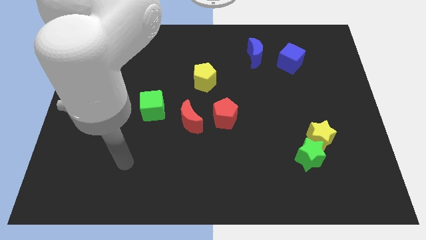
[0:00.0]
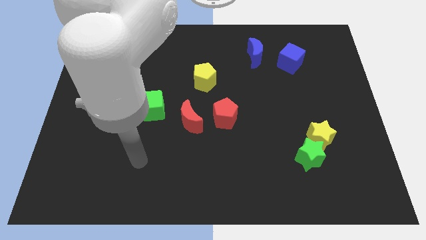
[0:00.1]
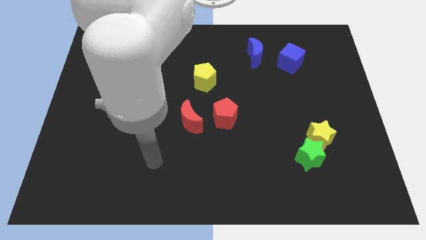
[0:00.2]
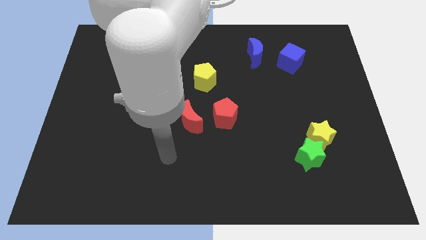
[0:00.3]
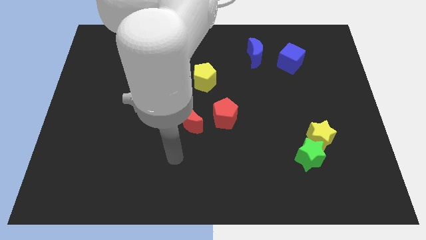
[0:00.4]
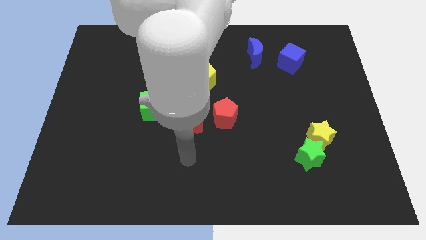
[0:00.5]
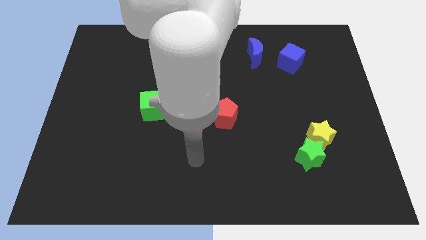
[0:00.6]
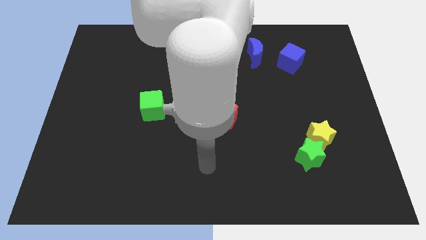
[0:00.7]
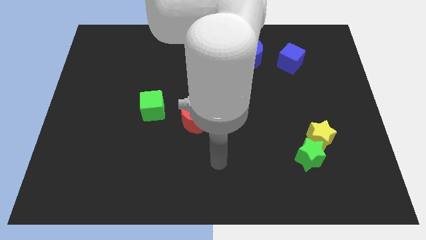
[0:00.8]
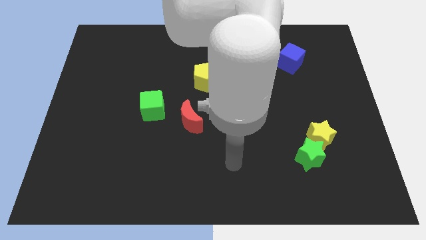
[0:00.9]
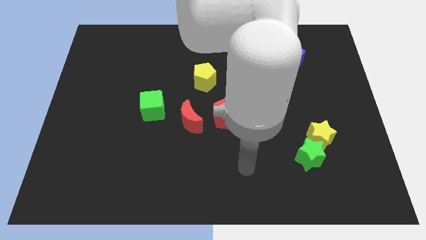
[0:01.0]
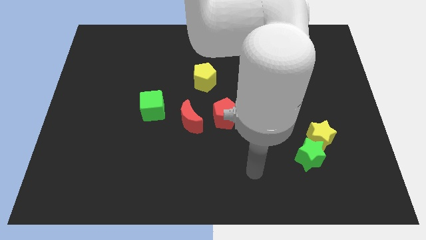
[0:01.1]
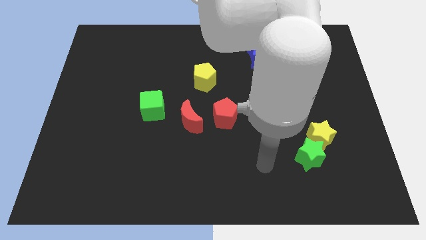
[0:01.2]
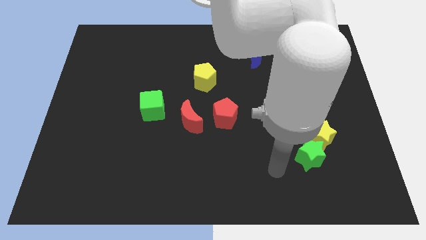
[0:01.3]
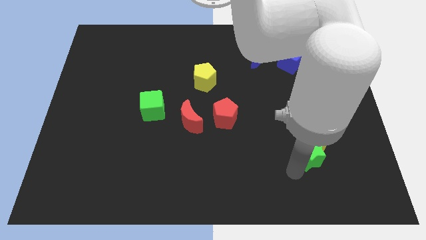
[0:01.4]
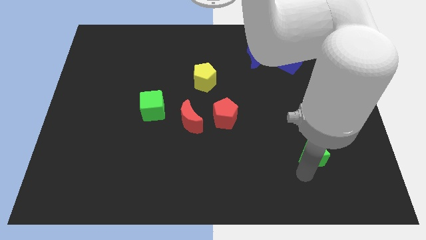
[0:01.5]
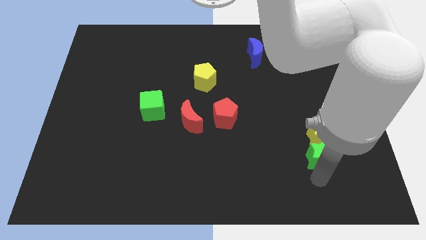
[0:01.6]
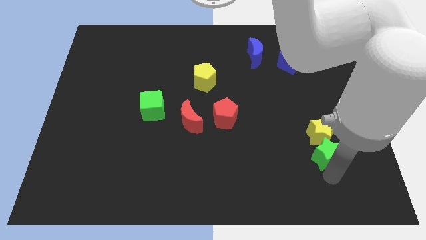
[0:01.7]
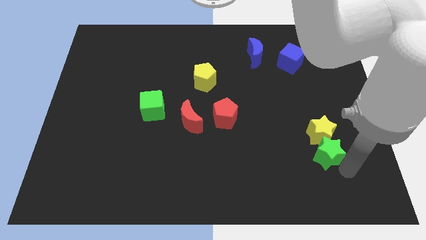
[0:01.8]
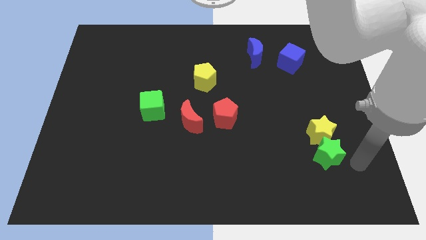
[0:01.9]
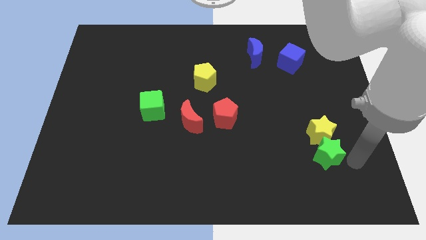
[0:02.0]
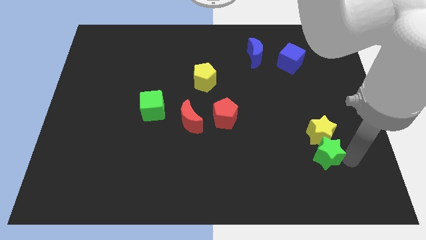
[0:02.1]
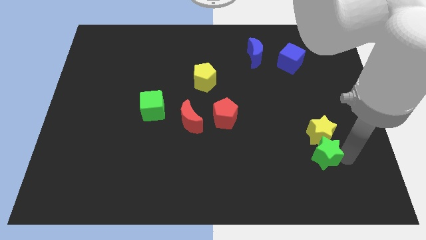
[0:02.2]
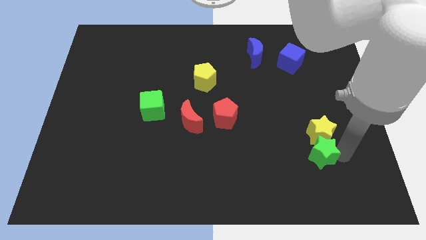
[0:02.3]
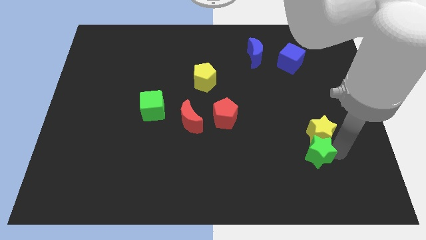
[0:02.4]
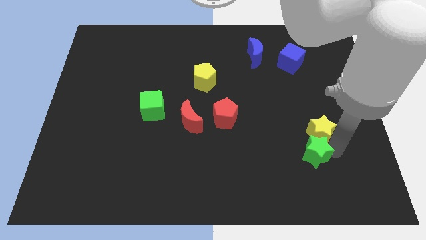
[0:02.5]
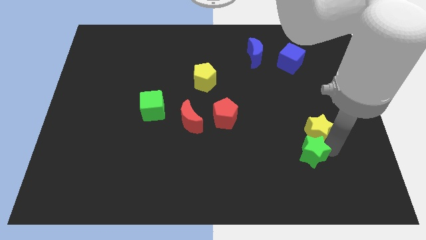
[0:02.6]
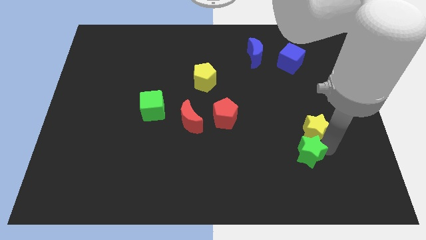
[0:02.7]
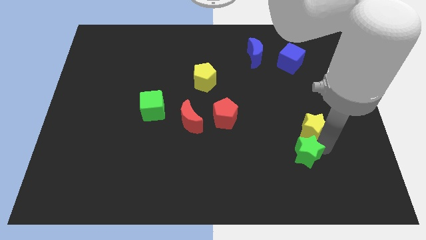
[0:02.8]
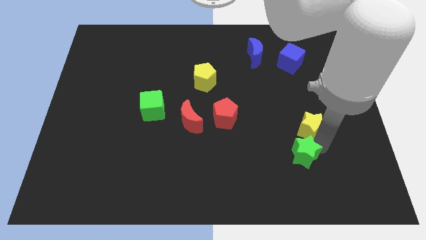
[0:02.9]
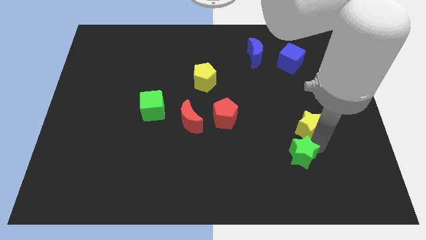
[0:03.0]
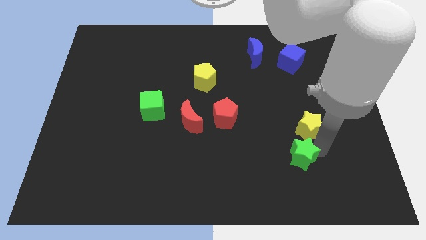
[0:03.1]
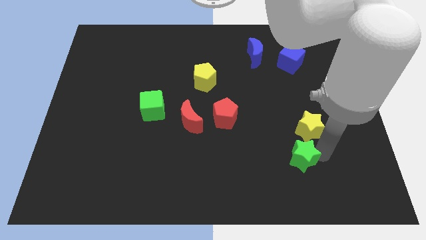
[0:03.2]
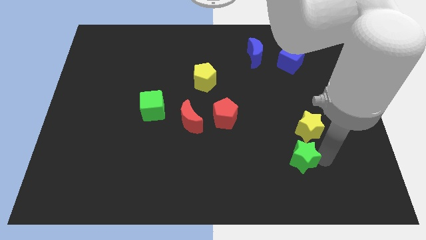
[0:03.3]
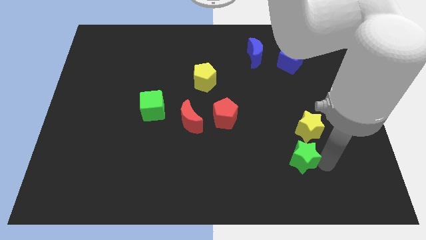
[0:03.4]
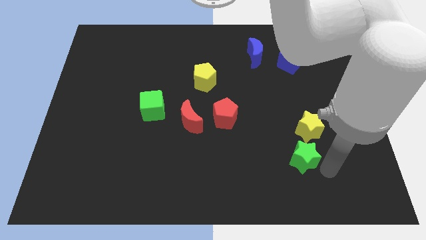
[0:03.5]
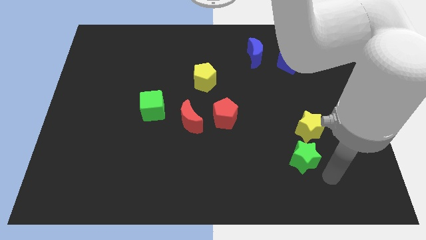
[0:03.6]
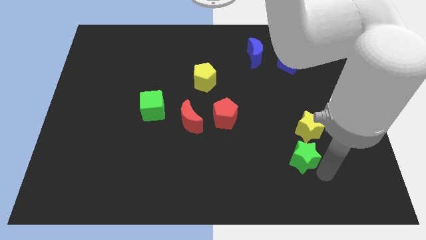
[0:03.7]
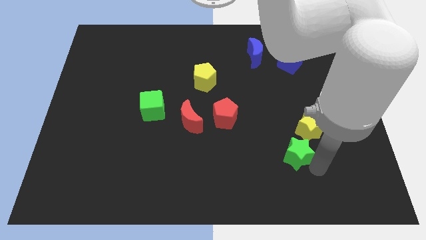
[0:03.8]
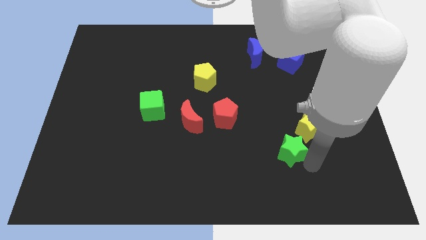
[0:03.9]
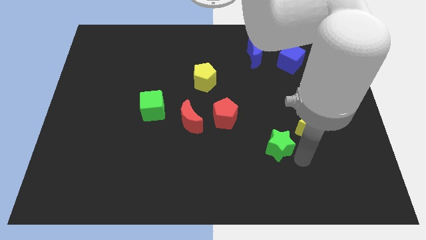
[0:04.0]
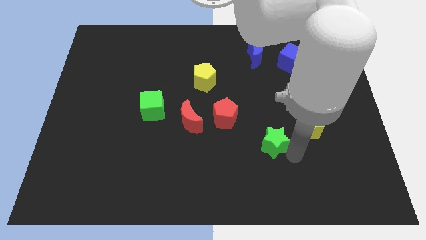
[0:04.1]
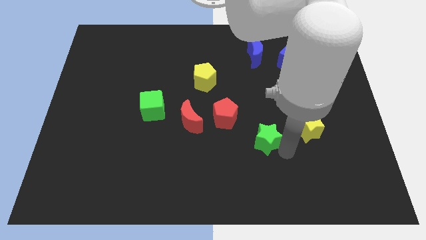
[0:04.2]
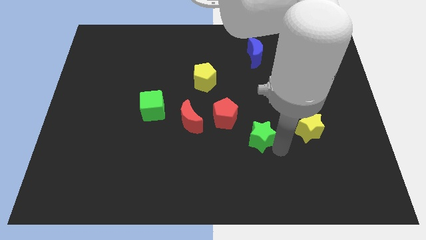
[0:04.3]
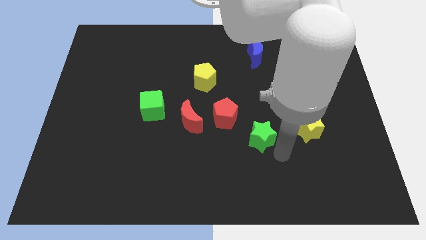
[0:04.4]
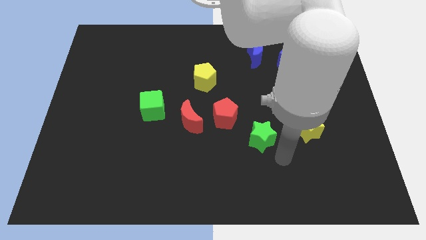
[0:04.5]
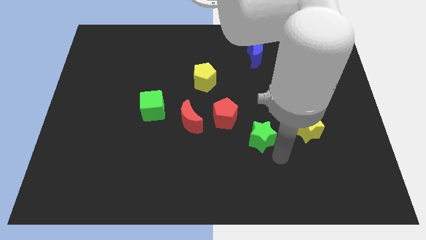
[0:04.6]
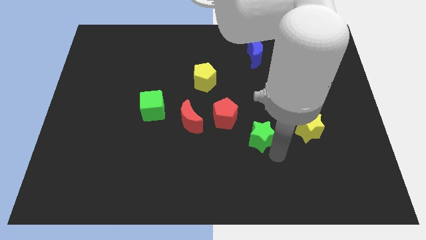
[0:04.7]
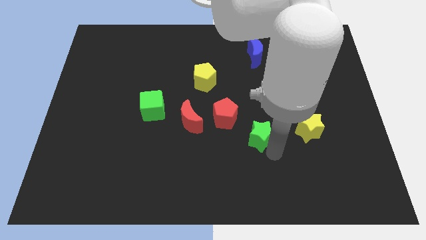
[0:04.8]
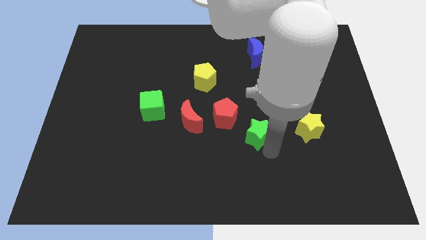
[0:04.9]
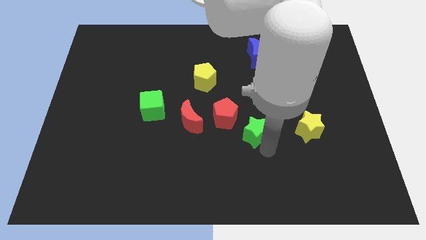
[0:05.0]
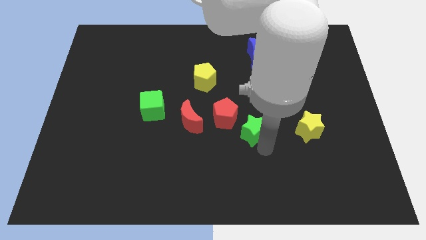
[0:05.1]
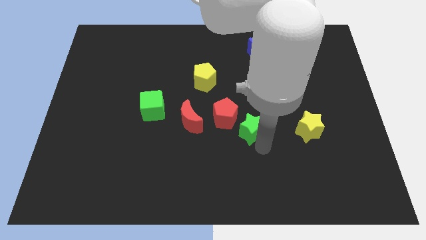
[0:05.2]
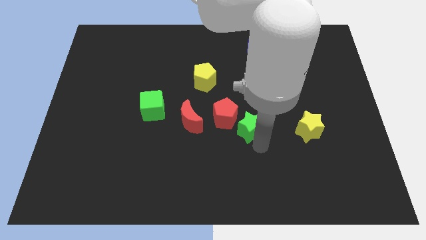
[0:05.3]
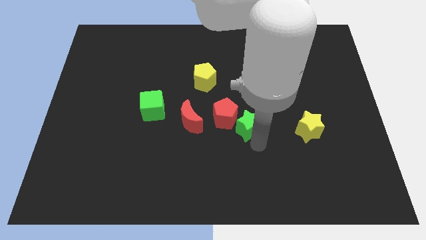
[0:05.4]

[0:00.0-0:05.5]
move the green star close to the red pentagon

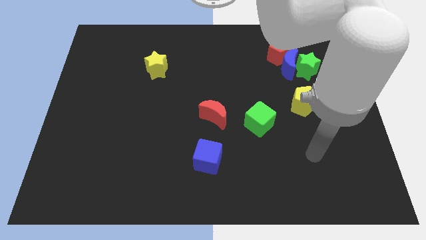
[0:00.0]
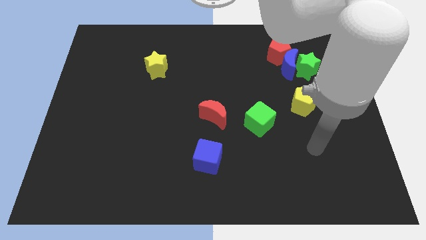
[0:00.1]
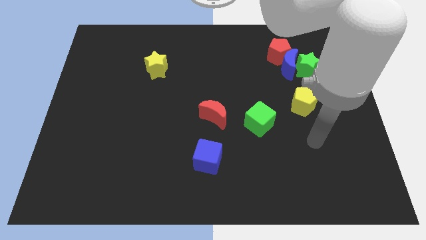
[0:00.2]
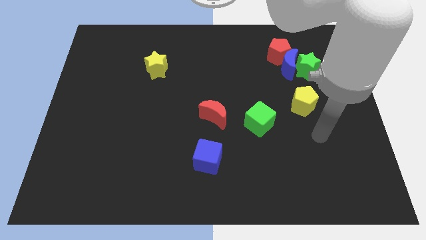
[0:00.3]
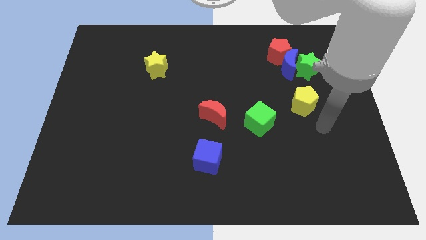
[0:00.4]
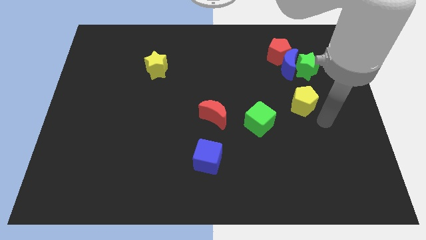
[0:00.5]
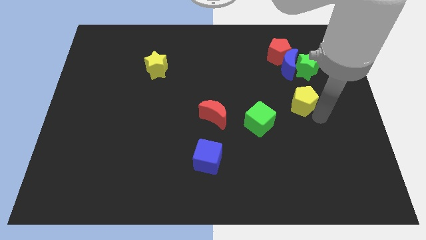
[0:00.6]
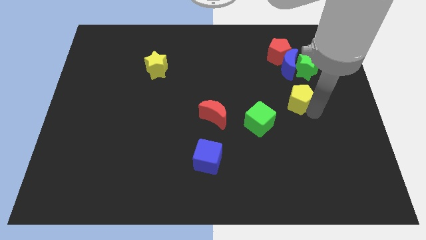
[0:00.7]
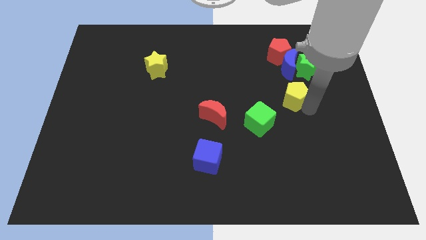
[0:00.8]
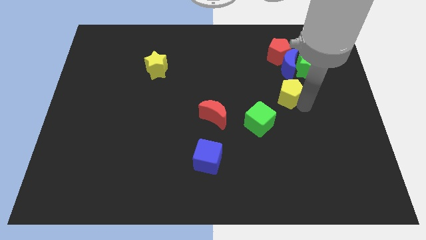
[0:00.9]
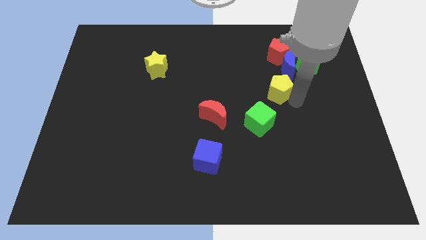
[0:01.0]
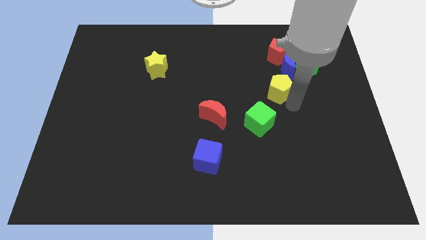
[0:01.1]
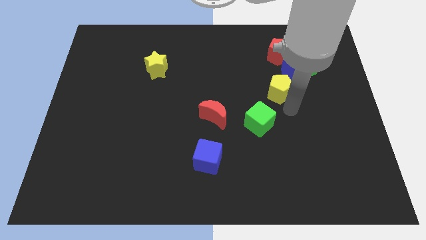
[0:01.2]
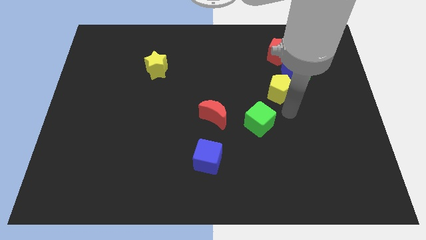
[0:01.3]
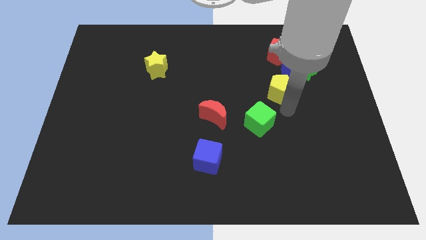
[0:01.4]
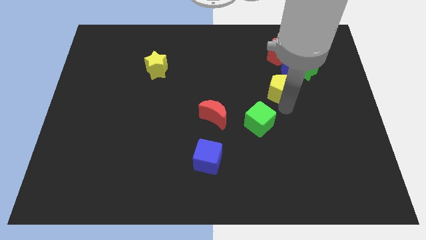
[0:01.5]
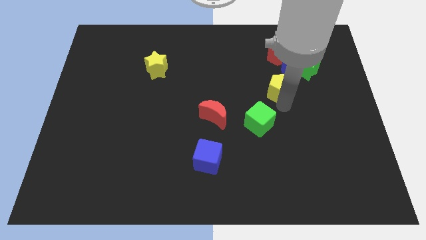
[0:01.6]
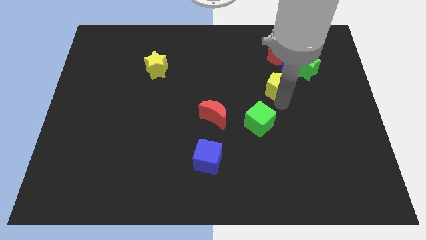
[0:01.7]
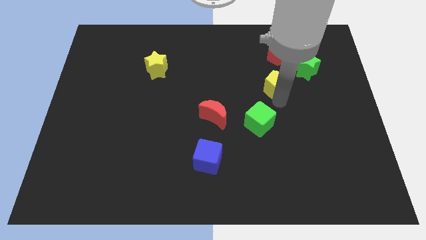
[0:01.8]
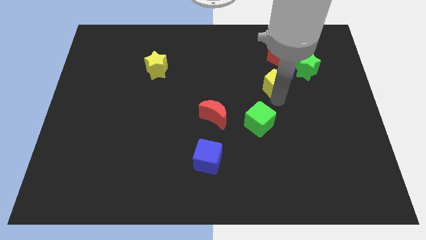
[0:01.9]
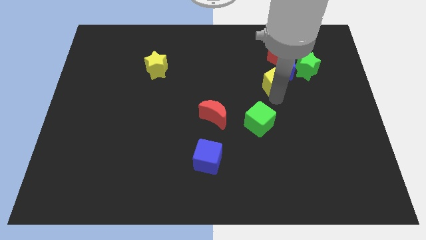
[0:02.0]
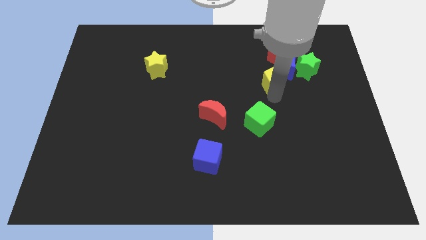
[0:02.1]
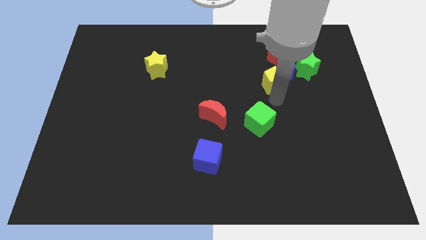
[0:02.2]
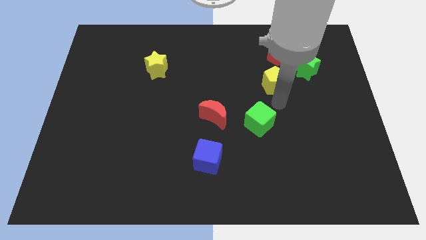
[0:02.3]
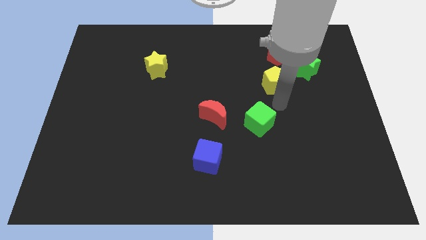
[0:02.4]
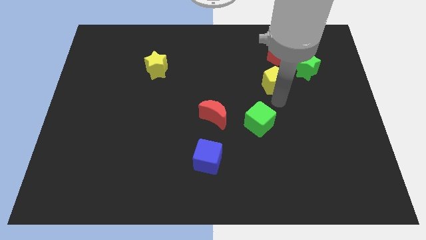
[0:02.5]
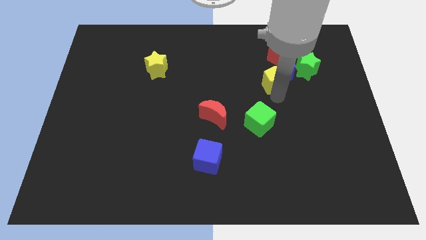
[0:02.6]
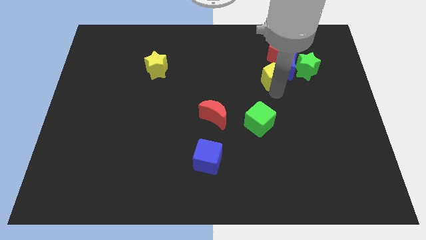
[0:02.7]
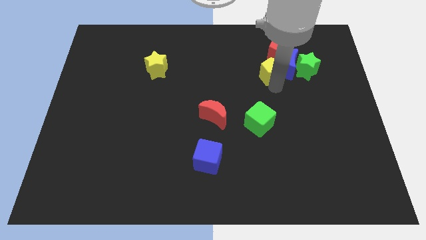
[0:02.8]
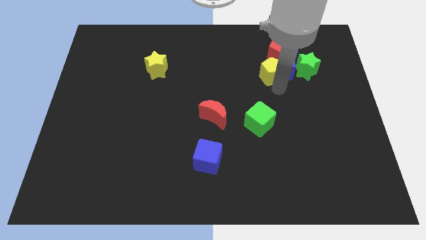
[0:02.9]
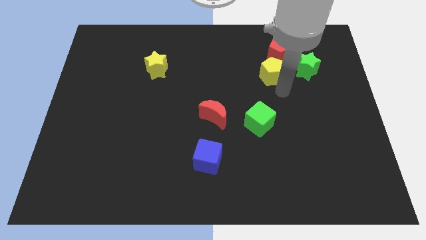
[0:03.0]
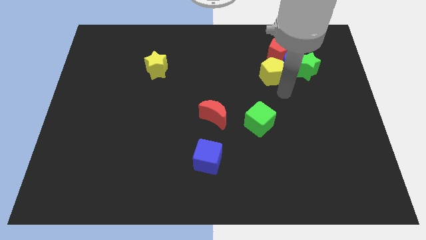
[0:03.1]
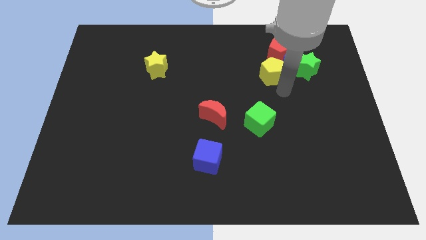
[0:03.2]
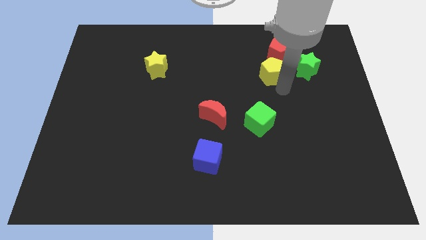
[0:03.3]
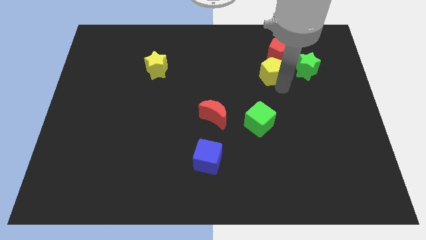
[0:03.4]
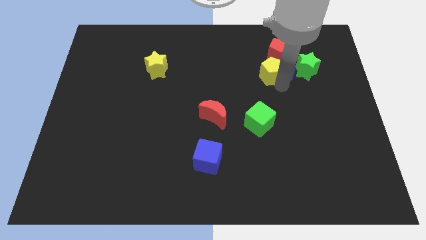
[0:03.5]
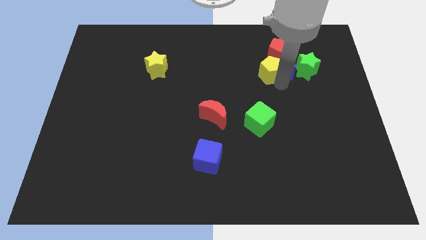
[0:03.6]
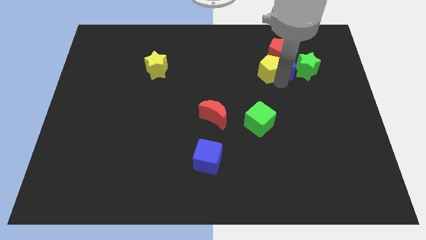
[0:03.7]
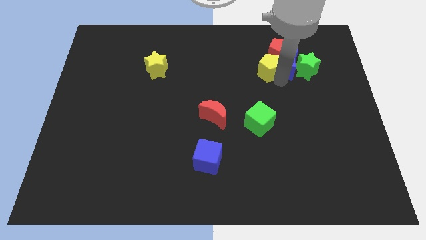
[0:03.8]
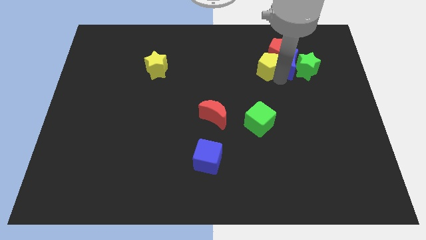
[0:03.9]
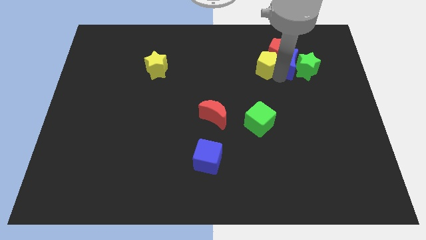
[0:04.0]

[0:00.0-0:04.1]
move the yellow pentagon close to the red pentagon
